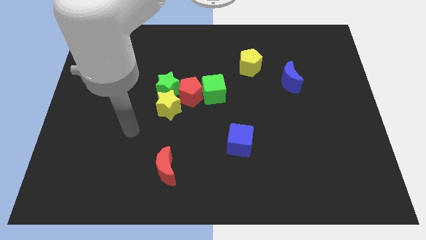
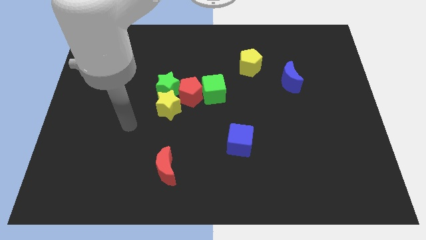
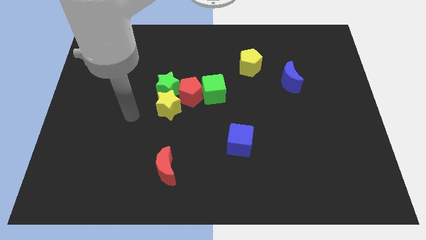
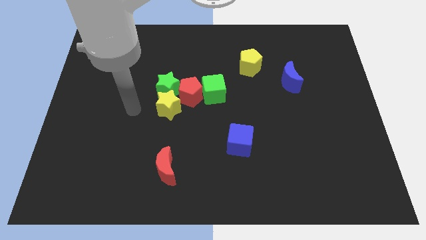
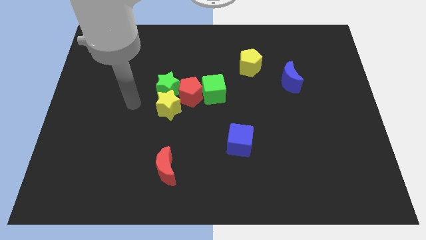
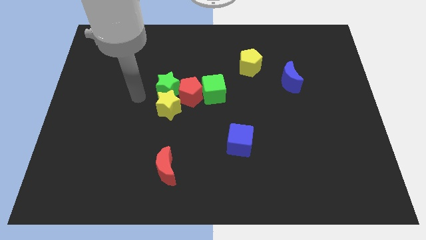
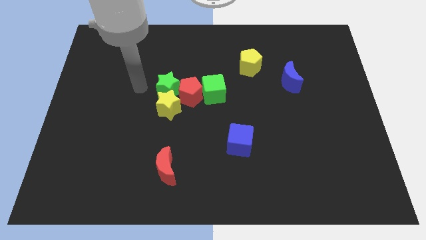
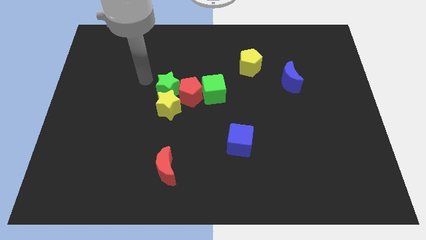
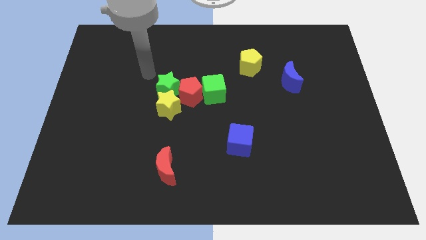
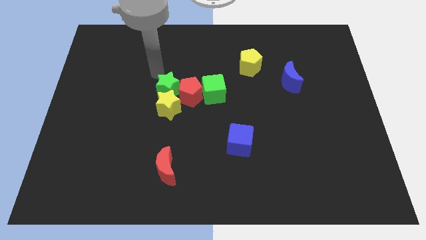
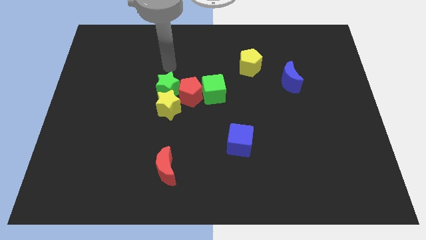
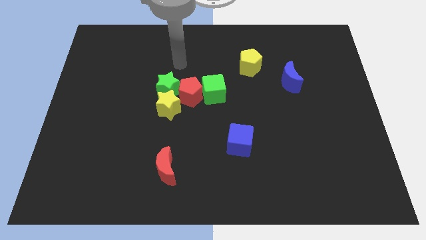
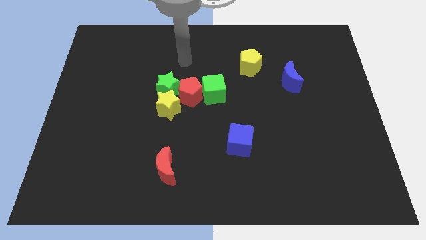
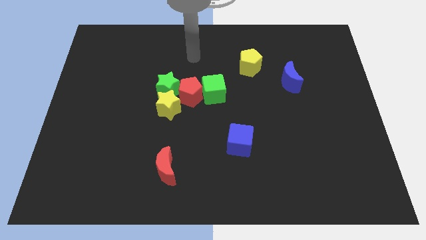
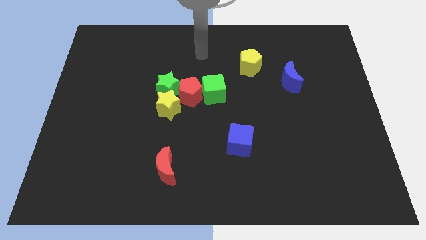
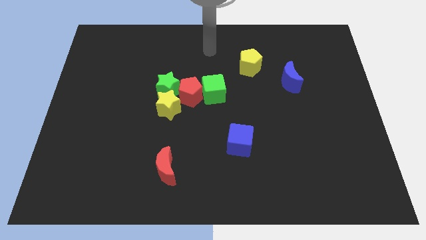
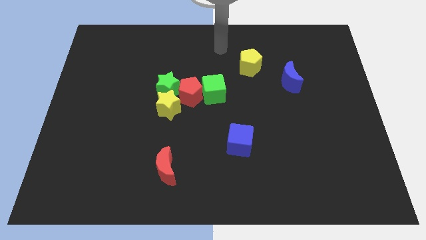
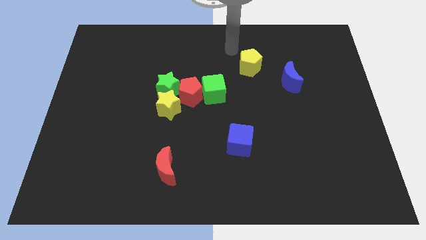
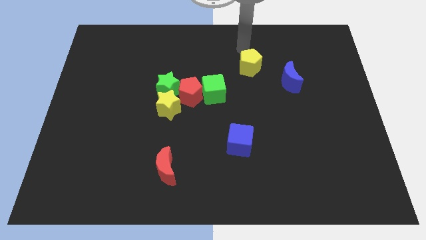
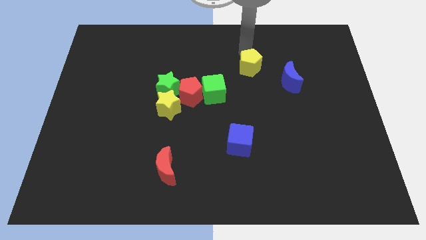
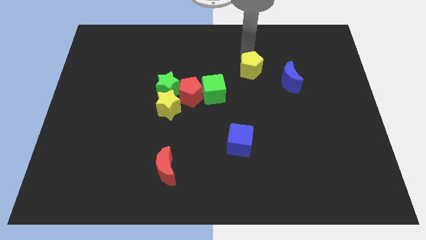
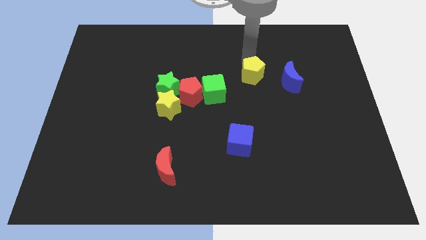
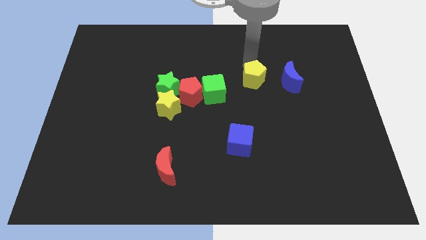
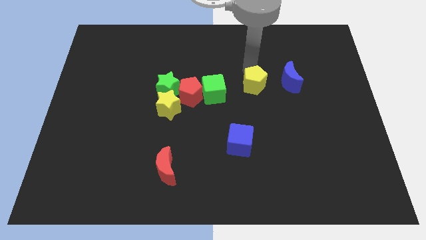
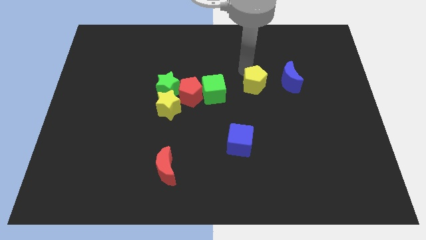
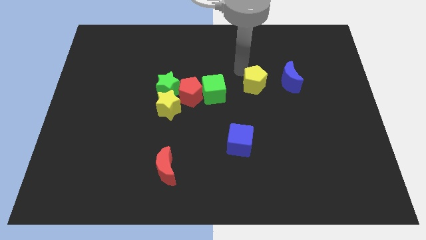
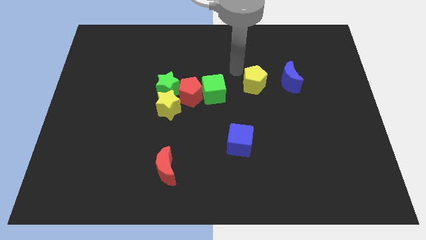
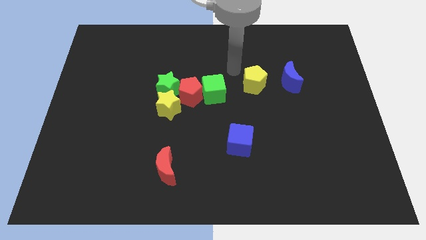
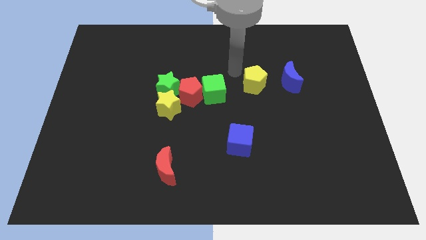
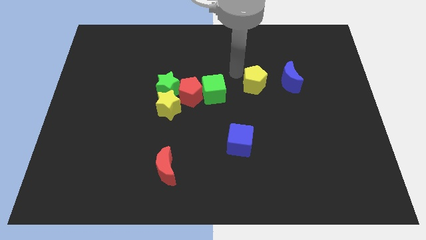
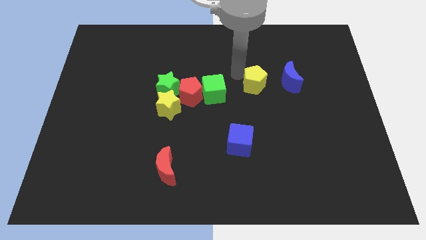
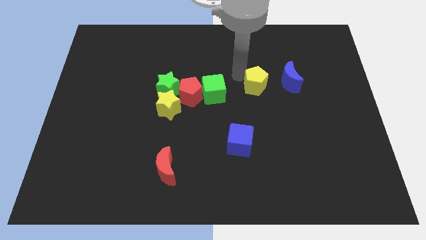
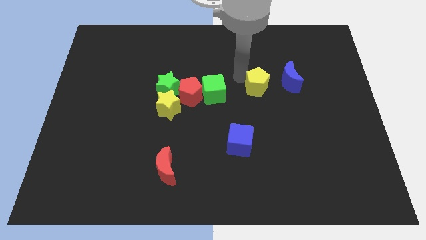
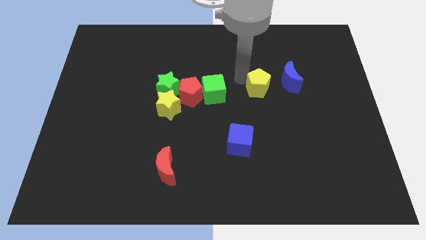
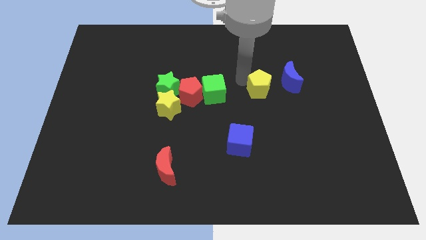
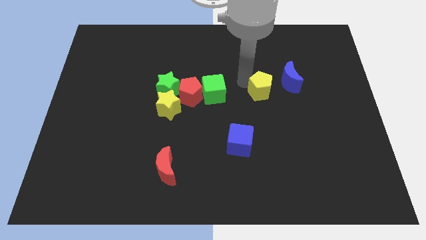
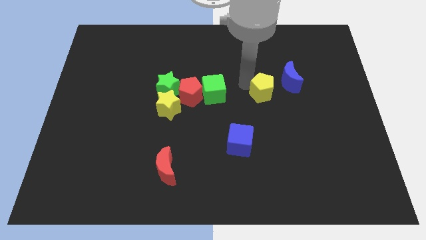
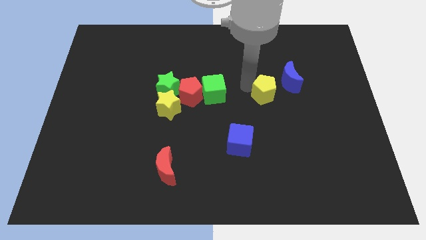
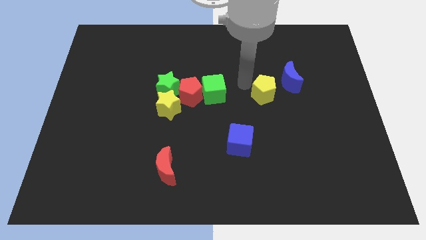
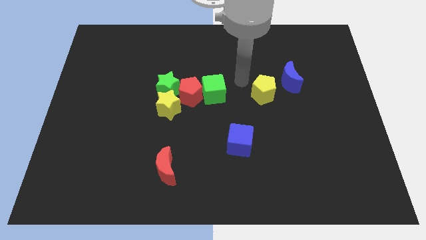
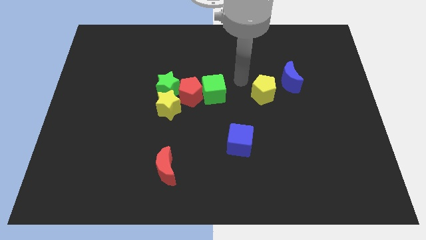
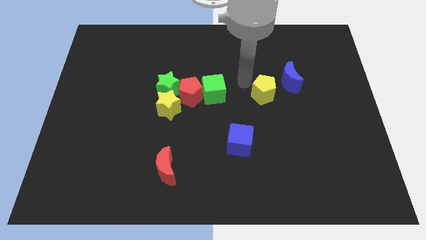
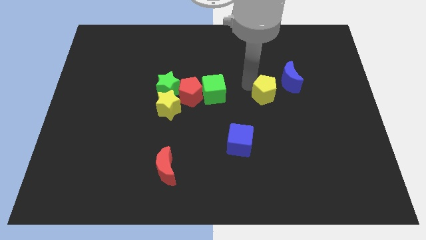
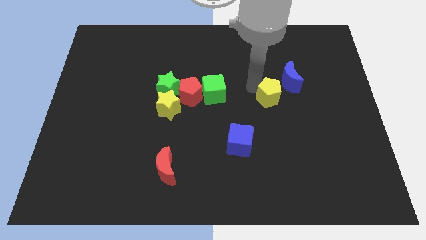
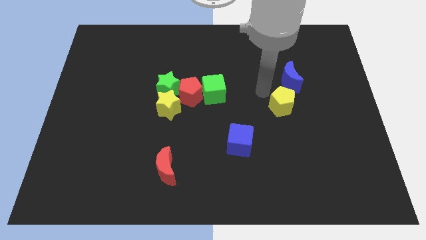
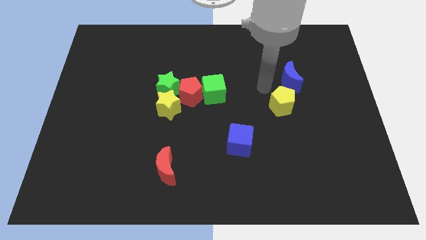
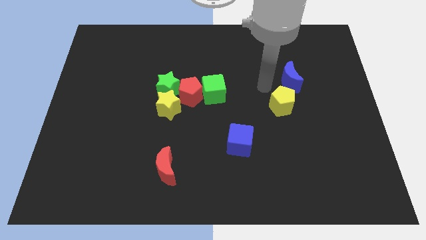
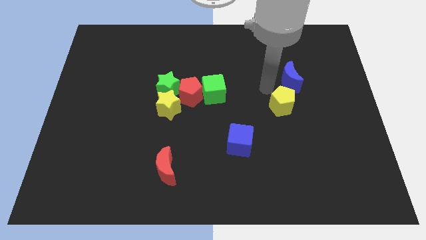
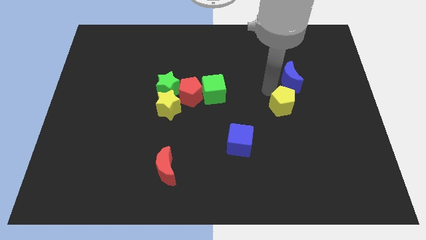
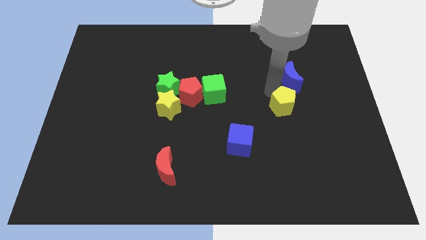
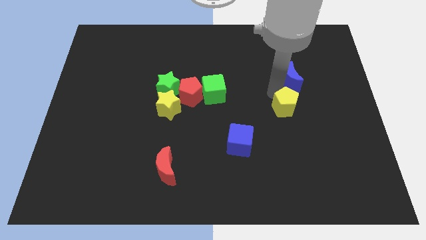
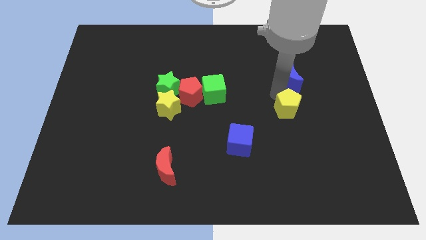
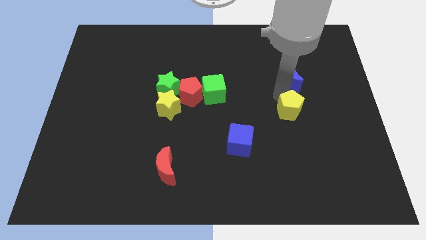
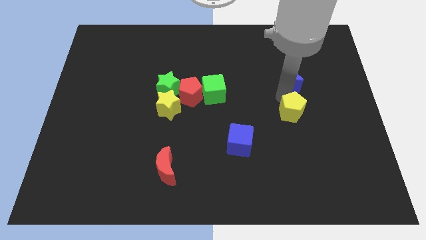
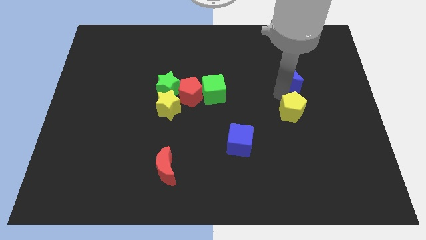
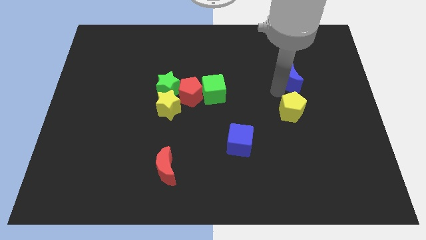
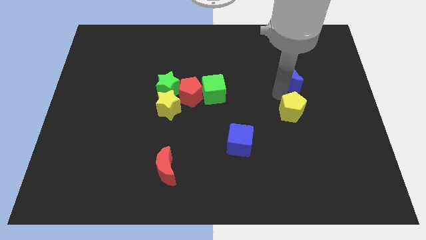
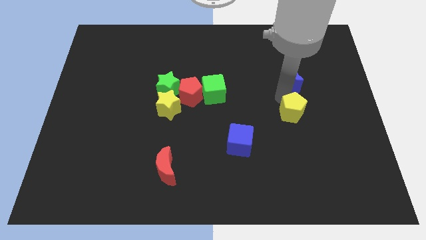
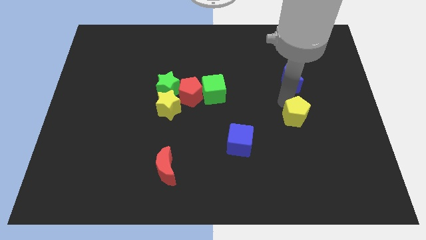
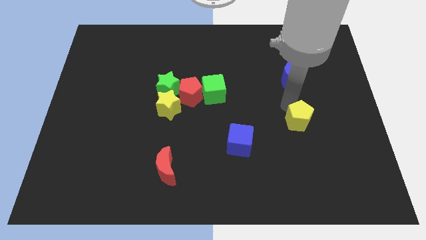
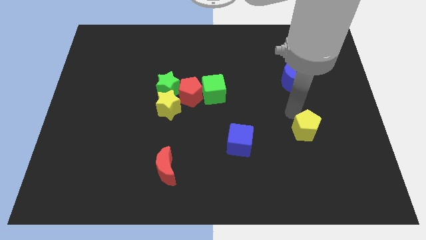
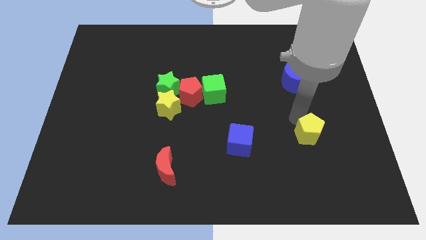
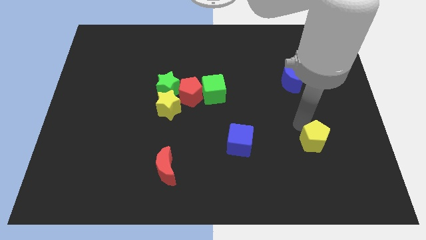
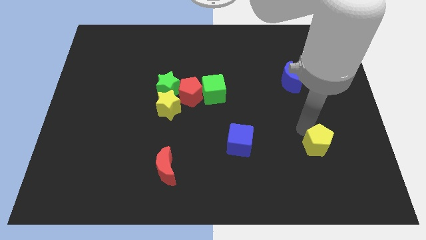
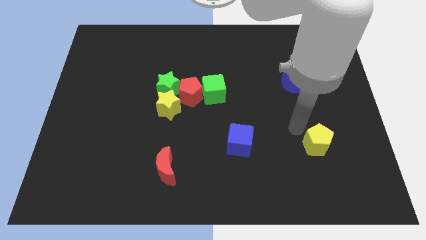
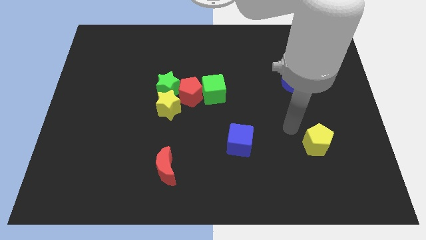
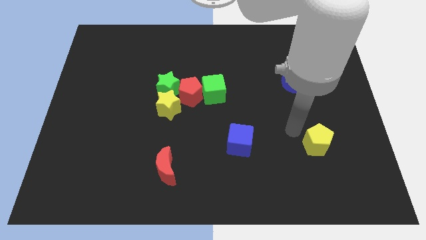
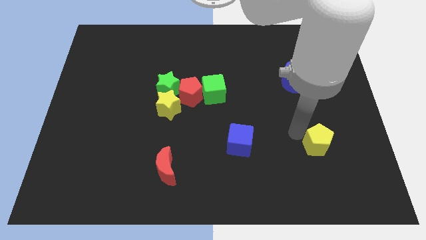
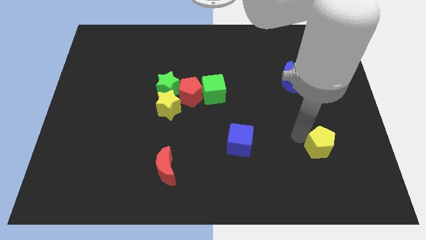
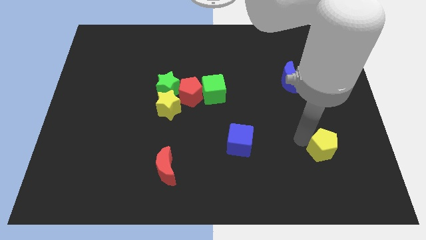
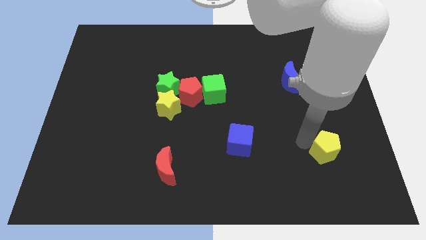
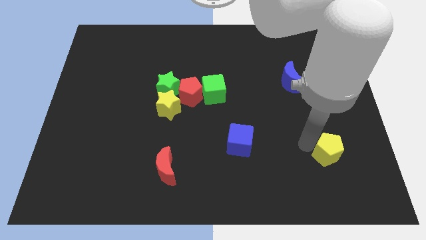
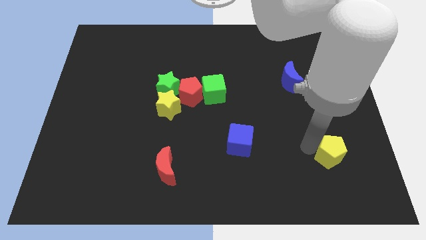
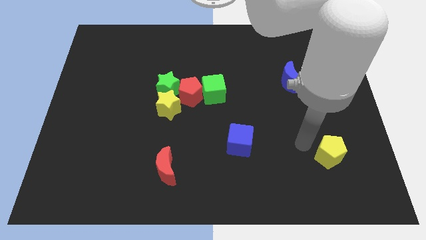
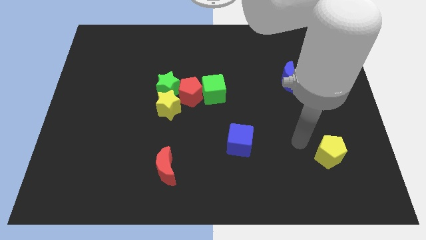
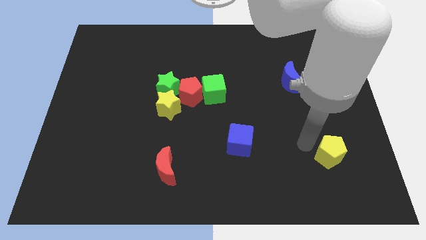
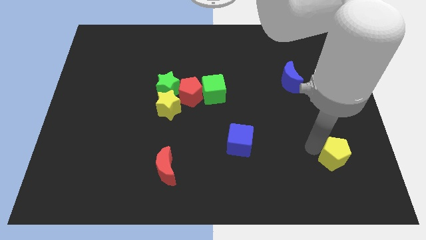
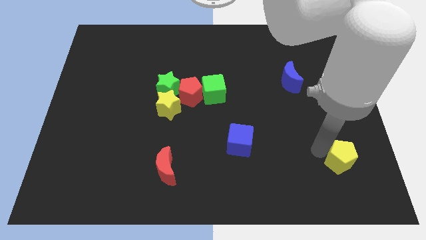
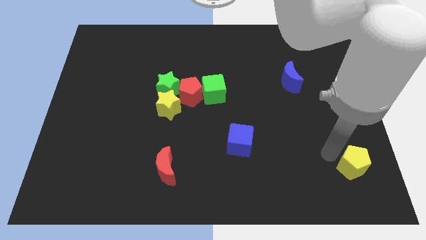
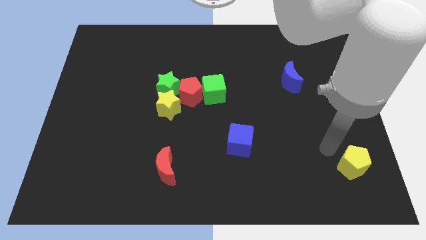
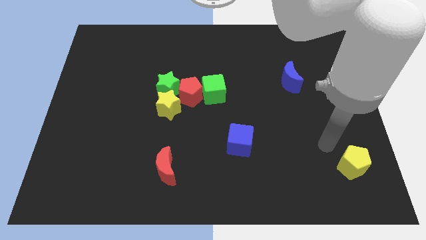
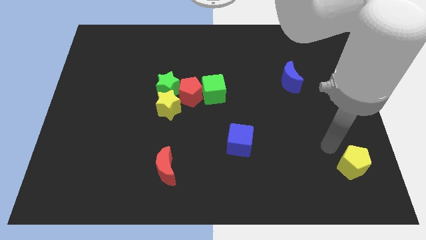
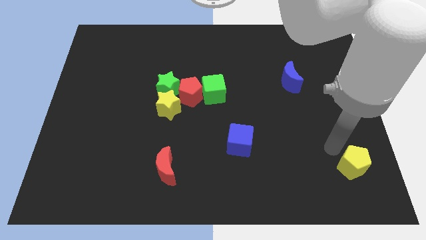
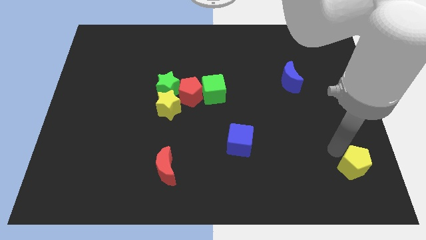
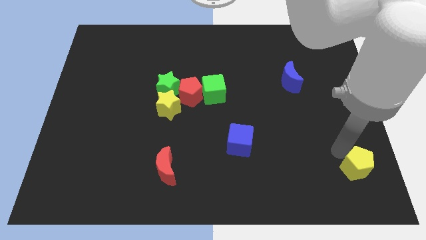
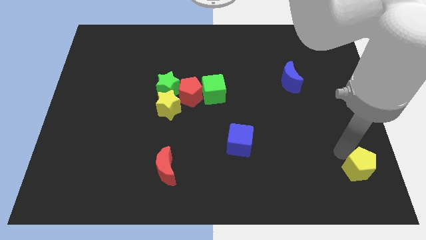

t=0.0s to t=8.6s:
slide the yellow pentagon to the bottom right
